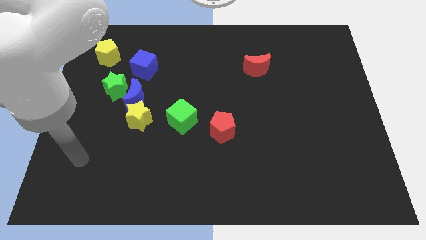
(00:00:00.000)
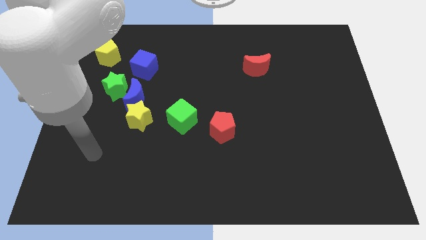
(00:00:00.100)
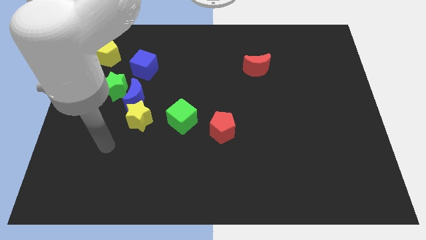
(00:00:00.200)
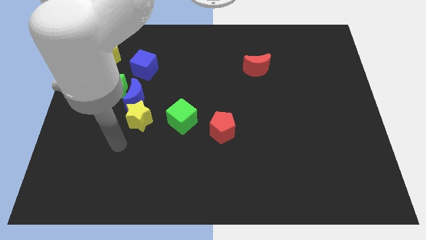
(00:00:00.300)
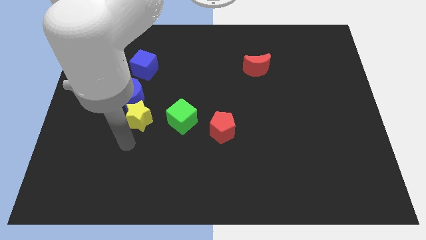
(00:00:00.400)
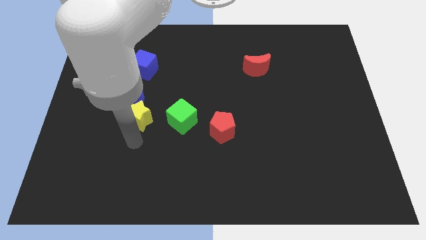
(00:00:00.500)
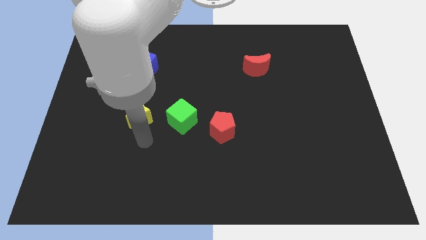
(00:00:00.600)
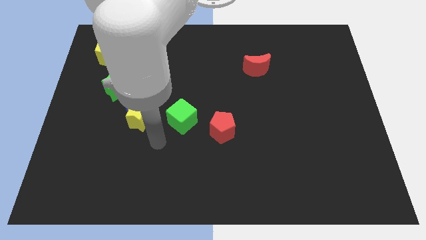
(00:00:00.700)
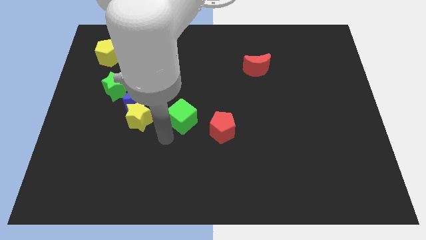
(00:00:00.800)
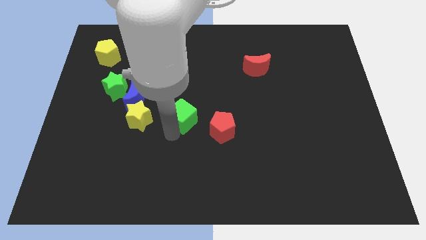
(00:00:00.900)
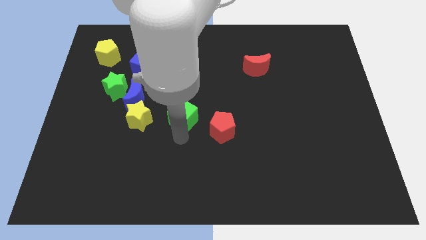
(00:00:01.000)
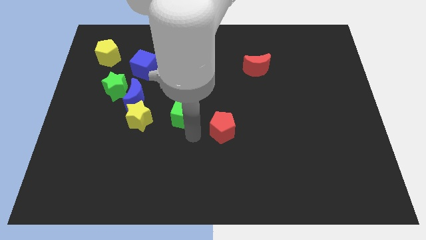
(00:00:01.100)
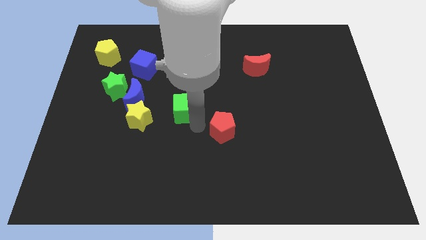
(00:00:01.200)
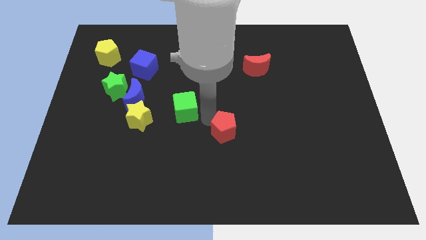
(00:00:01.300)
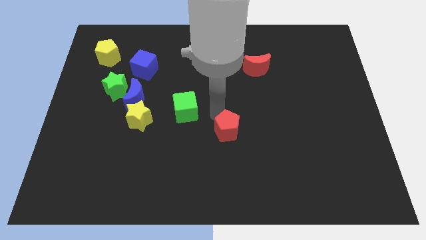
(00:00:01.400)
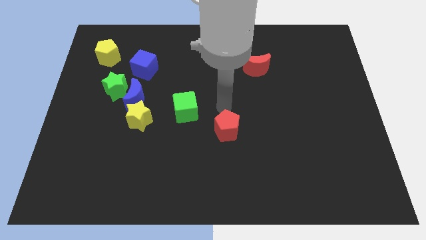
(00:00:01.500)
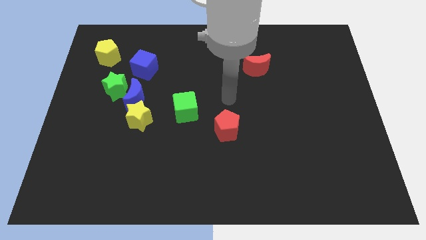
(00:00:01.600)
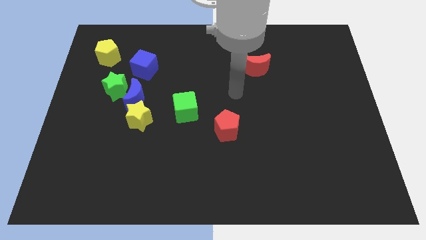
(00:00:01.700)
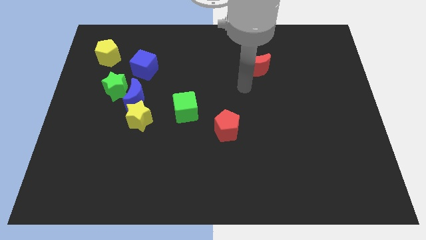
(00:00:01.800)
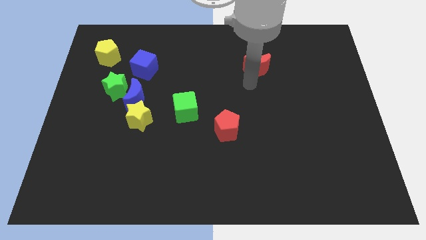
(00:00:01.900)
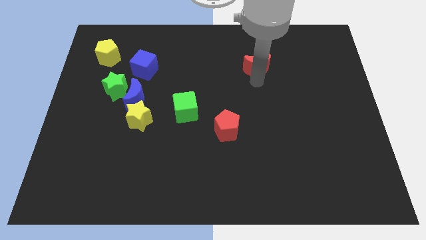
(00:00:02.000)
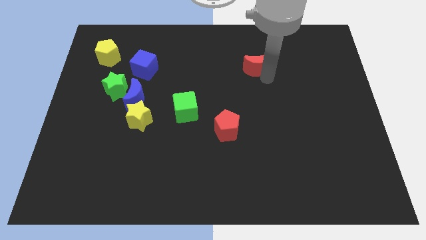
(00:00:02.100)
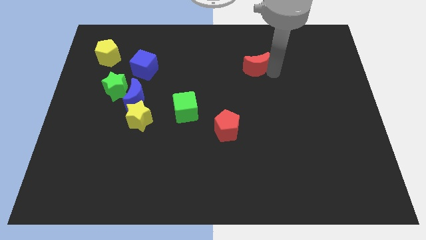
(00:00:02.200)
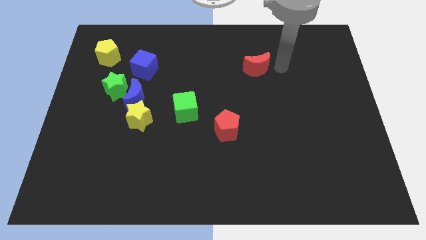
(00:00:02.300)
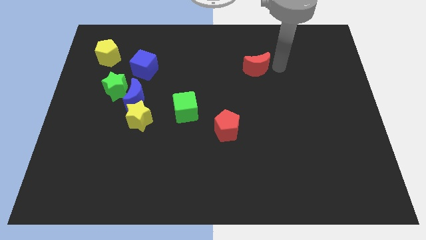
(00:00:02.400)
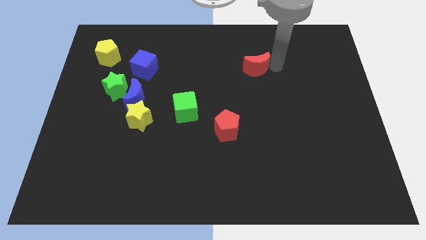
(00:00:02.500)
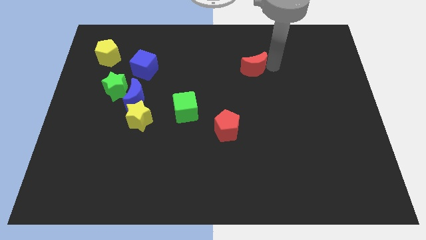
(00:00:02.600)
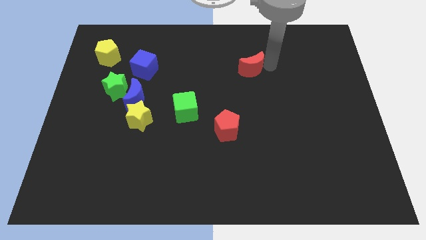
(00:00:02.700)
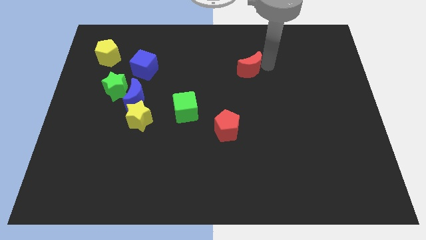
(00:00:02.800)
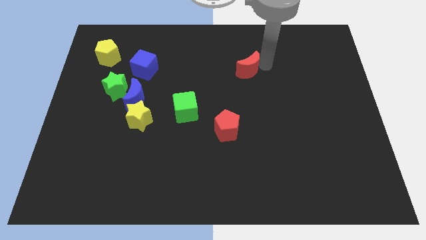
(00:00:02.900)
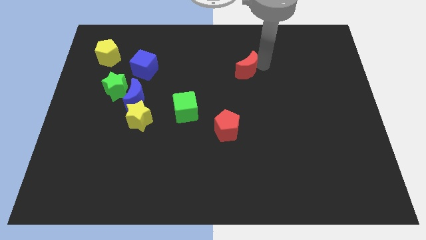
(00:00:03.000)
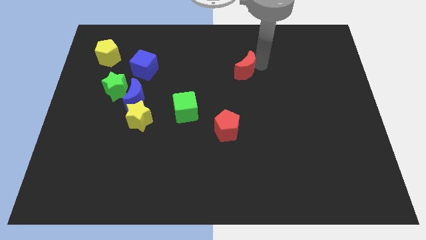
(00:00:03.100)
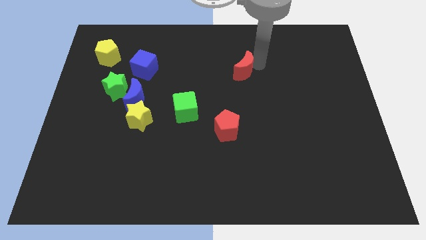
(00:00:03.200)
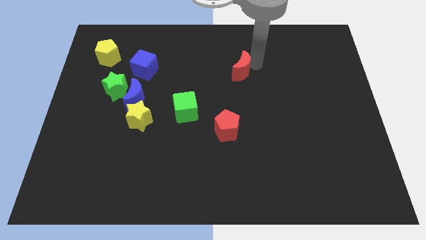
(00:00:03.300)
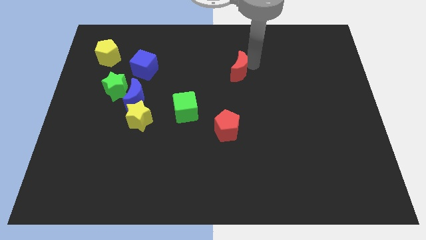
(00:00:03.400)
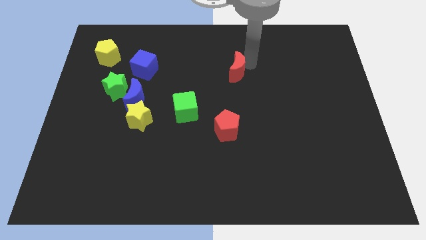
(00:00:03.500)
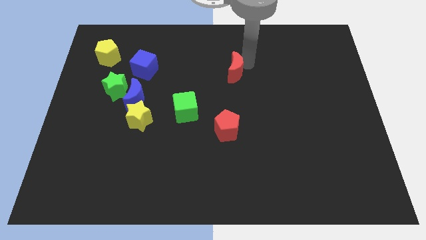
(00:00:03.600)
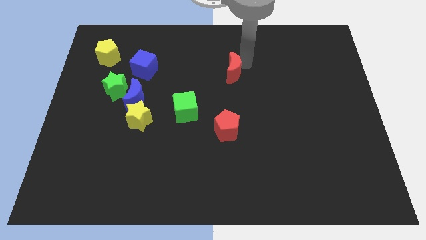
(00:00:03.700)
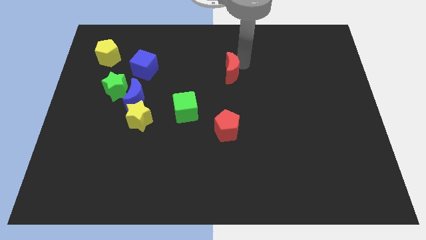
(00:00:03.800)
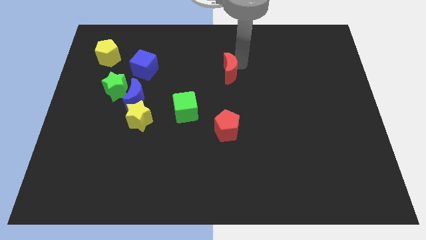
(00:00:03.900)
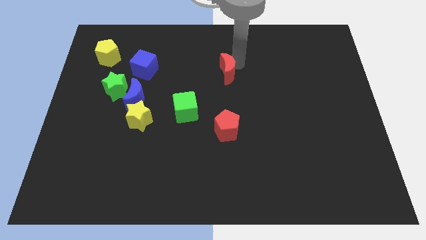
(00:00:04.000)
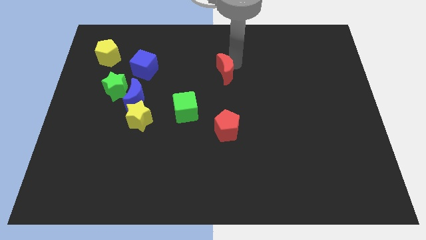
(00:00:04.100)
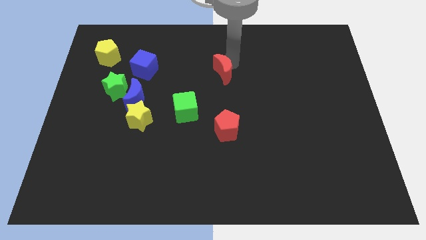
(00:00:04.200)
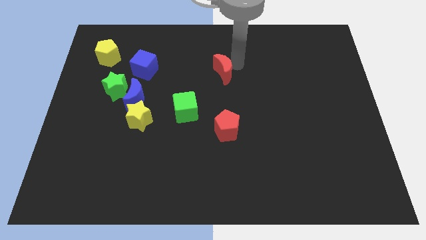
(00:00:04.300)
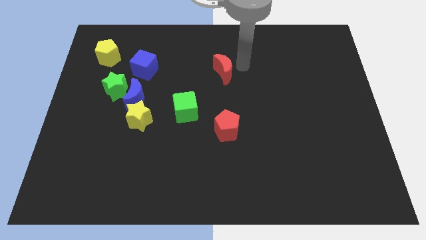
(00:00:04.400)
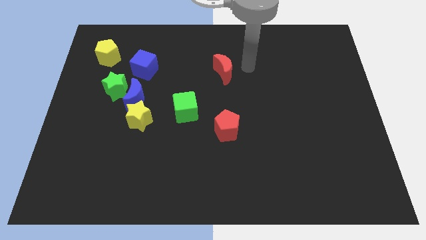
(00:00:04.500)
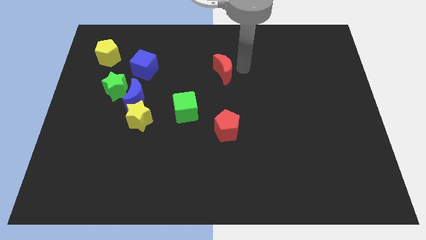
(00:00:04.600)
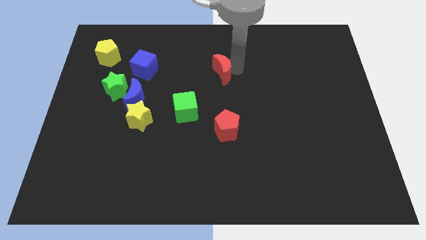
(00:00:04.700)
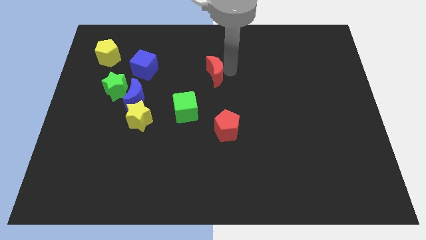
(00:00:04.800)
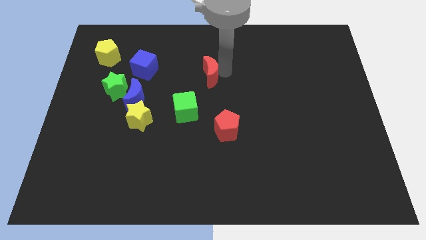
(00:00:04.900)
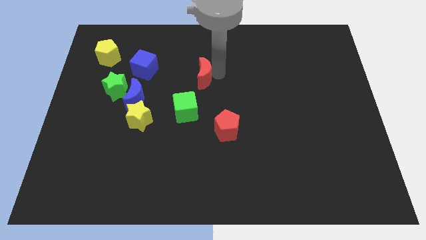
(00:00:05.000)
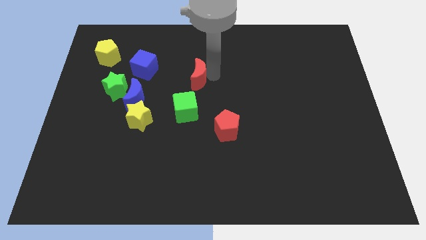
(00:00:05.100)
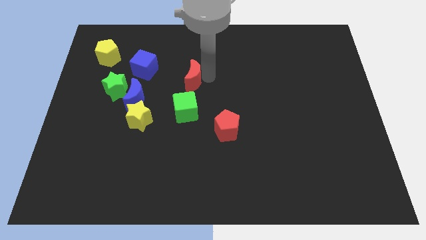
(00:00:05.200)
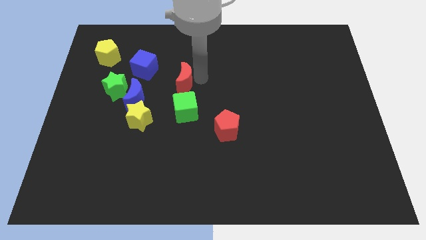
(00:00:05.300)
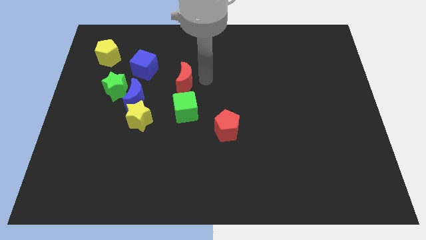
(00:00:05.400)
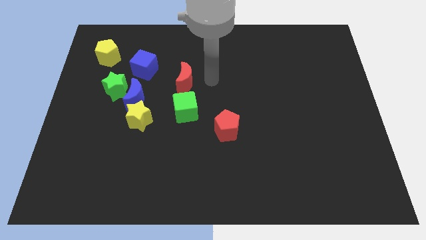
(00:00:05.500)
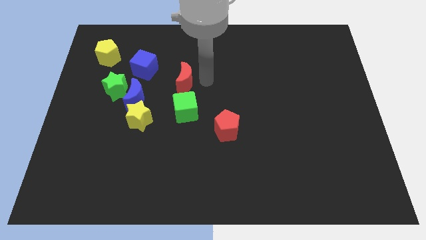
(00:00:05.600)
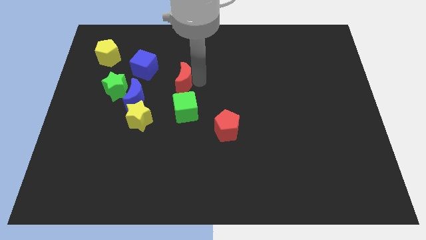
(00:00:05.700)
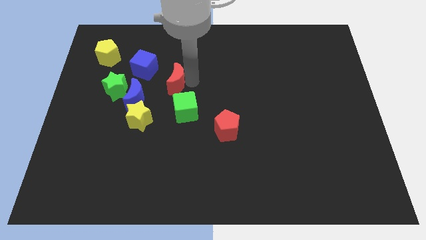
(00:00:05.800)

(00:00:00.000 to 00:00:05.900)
put the red moon diagonally up and to the right of the blue moon
